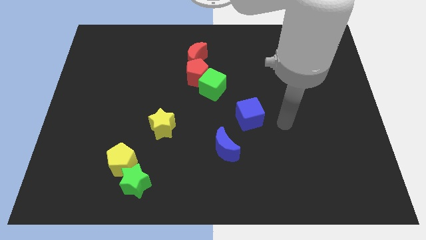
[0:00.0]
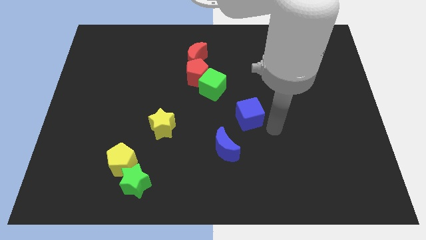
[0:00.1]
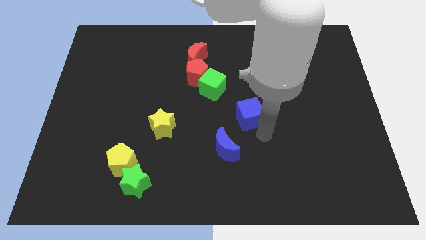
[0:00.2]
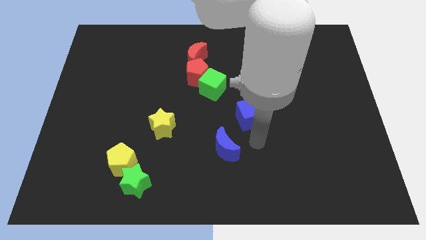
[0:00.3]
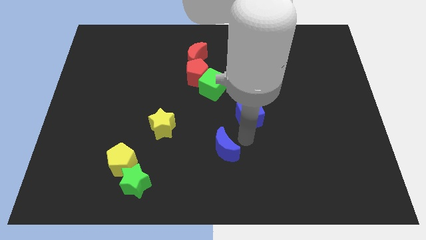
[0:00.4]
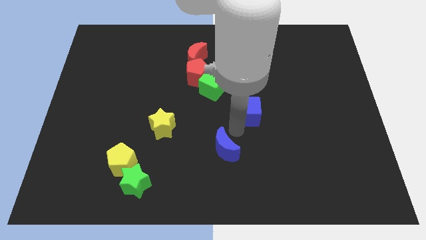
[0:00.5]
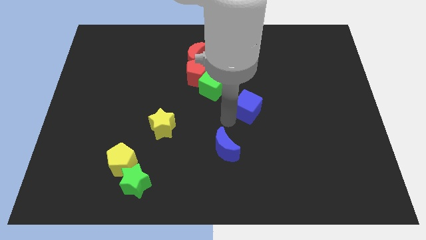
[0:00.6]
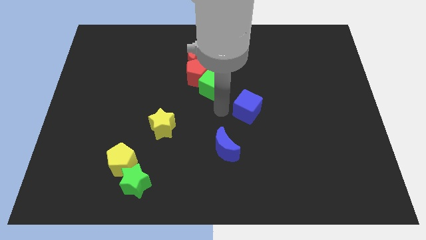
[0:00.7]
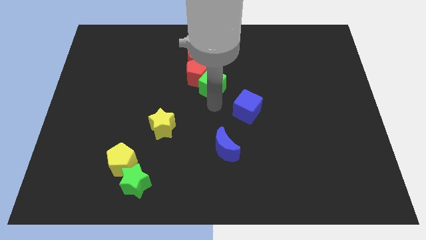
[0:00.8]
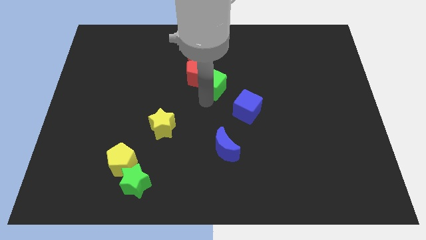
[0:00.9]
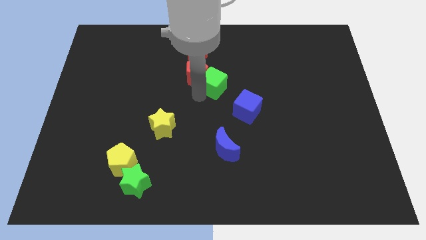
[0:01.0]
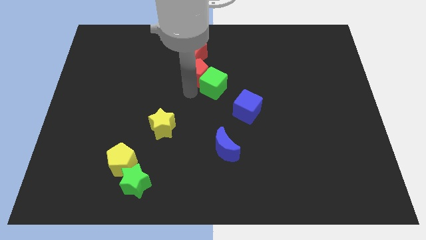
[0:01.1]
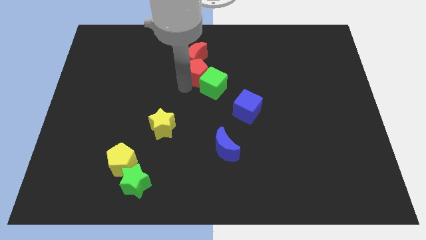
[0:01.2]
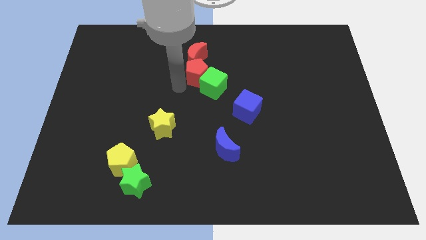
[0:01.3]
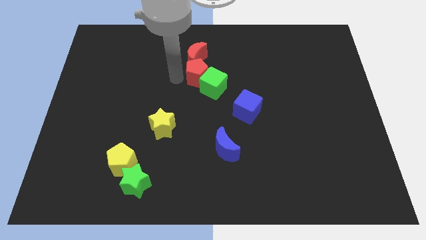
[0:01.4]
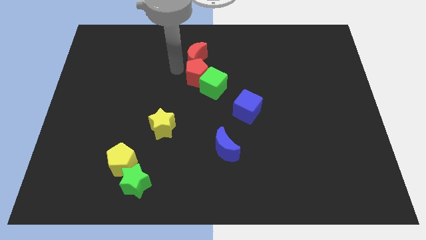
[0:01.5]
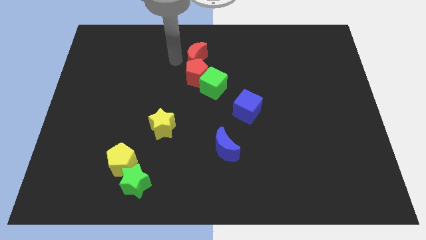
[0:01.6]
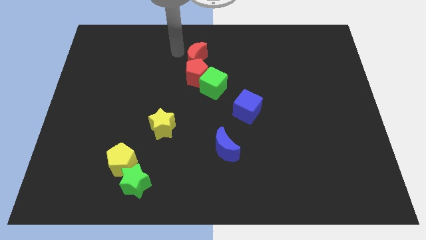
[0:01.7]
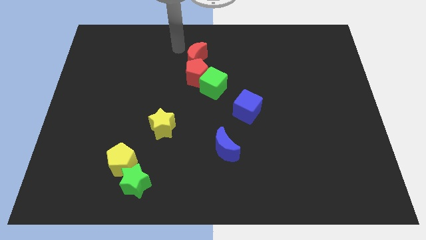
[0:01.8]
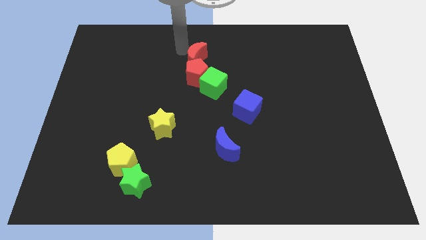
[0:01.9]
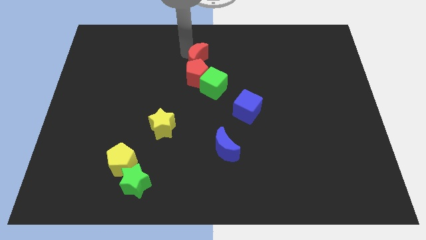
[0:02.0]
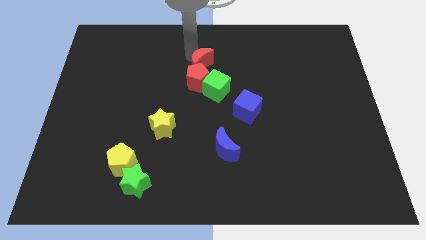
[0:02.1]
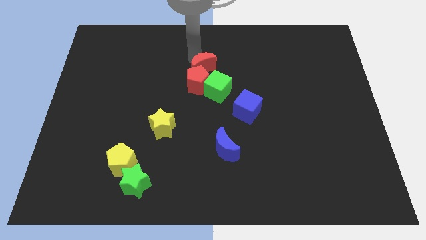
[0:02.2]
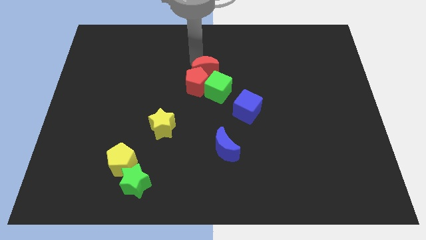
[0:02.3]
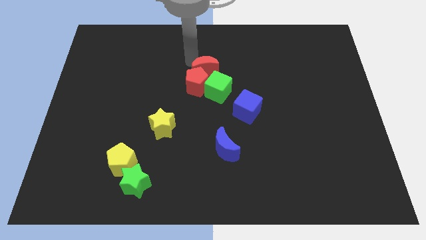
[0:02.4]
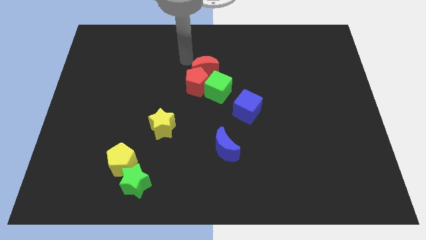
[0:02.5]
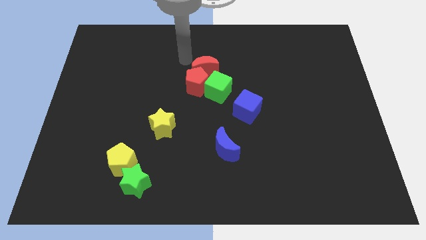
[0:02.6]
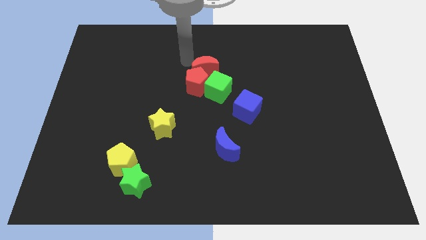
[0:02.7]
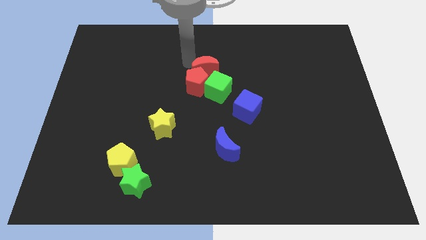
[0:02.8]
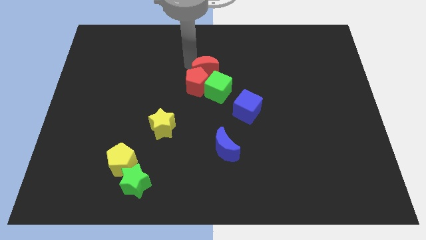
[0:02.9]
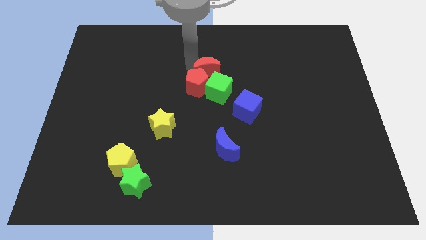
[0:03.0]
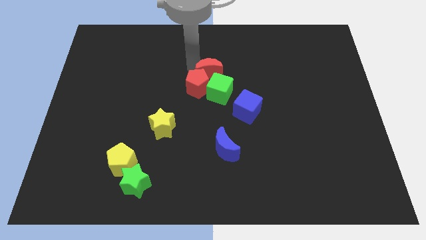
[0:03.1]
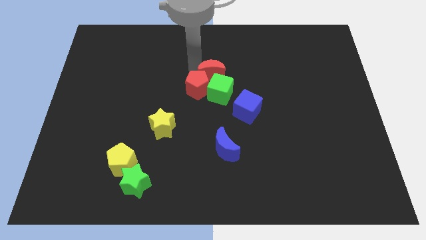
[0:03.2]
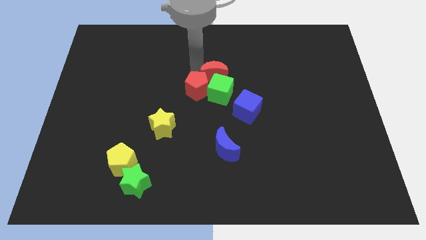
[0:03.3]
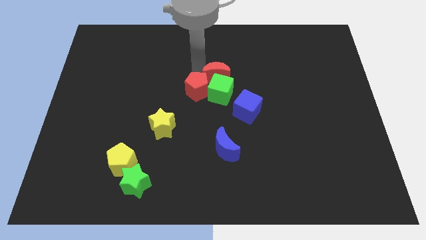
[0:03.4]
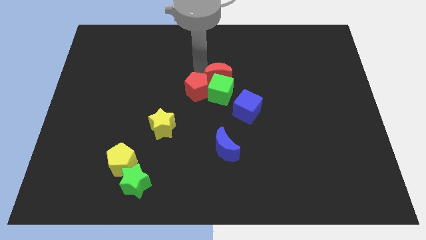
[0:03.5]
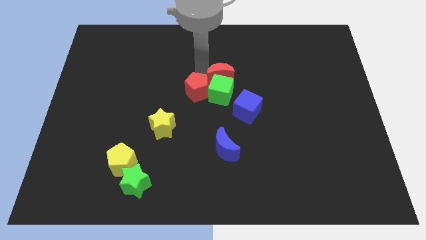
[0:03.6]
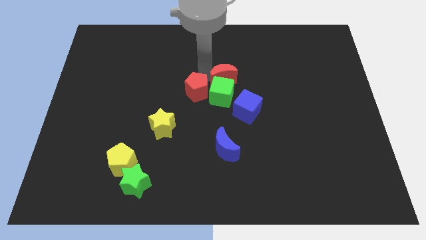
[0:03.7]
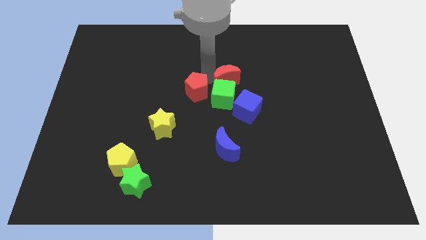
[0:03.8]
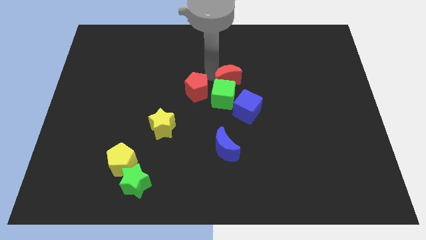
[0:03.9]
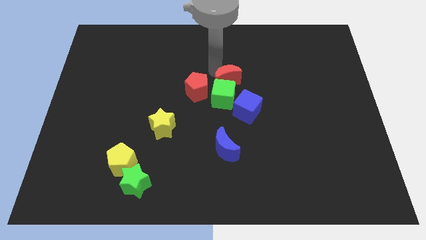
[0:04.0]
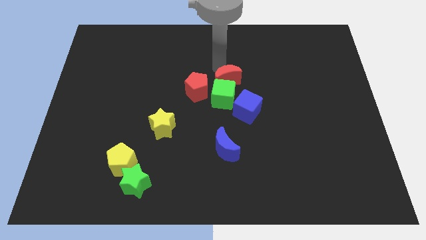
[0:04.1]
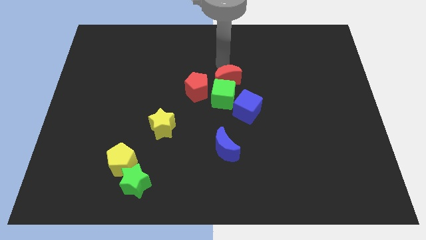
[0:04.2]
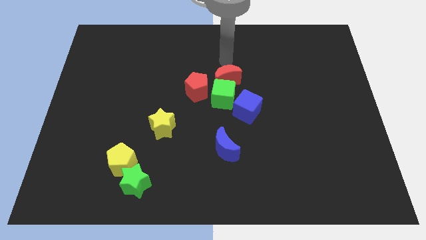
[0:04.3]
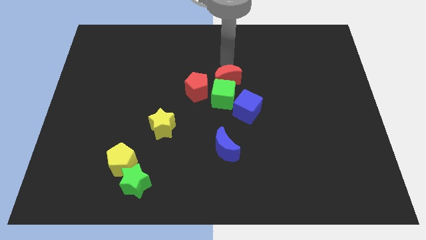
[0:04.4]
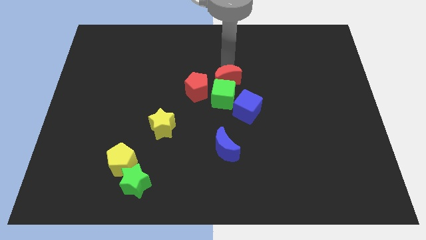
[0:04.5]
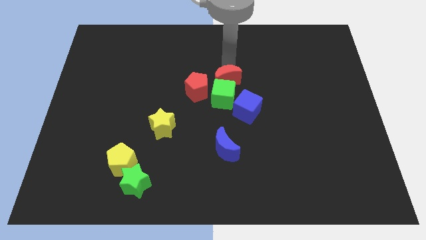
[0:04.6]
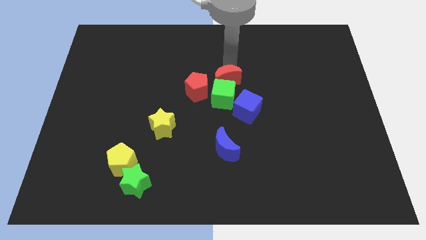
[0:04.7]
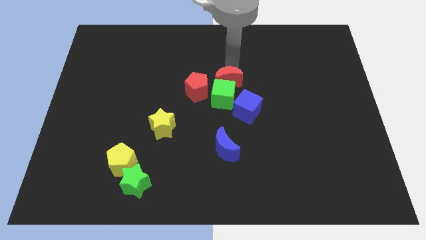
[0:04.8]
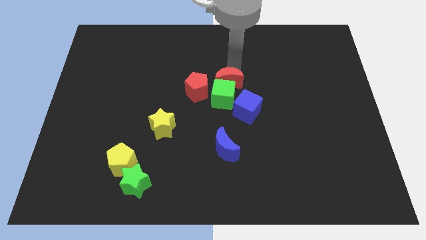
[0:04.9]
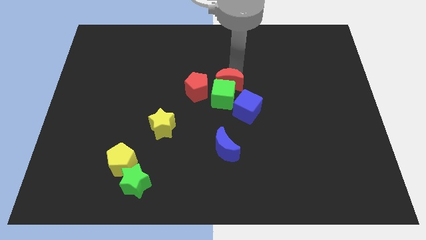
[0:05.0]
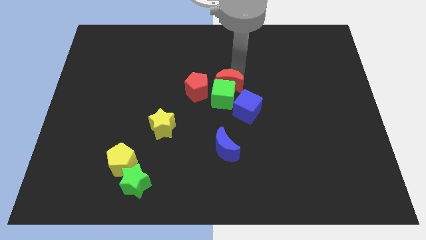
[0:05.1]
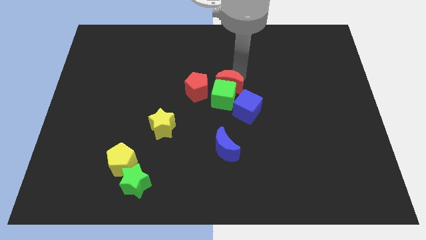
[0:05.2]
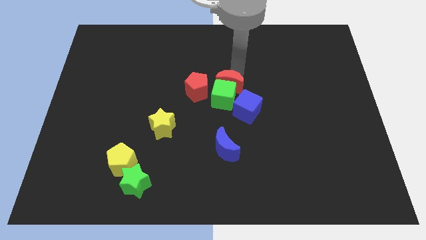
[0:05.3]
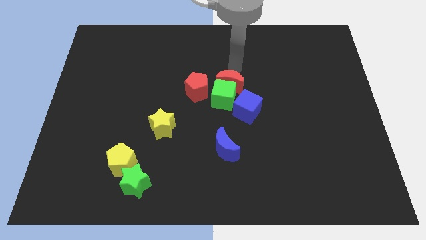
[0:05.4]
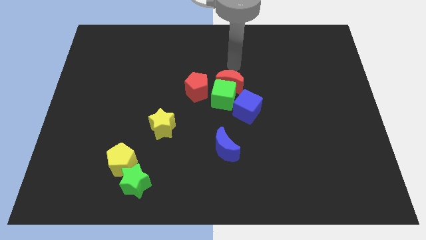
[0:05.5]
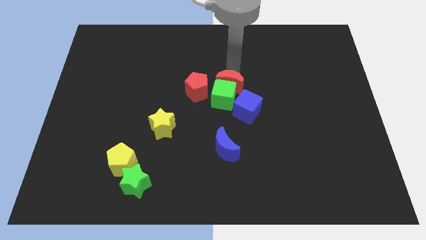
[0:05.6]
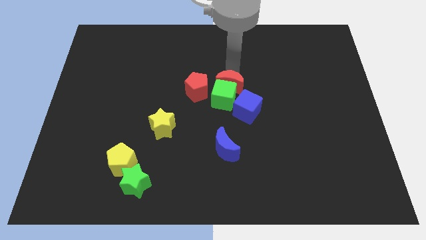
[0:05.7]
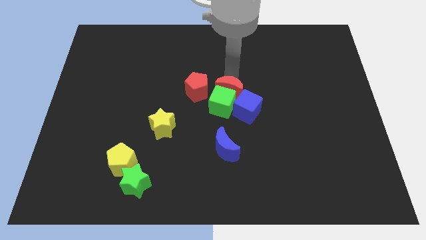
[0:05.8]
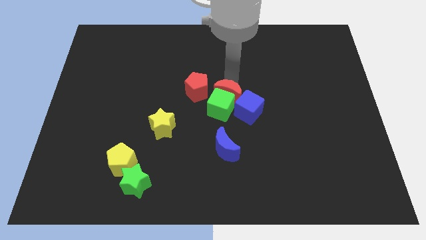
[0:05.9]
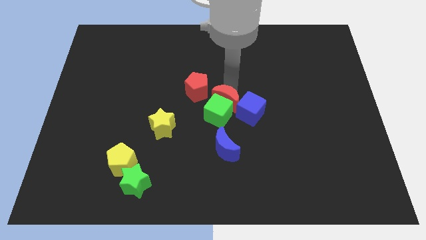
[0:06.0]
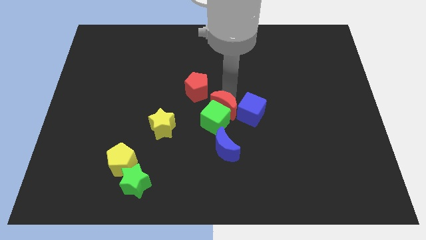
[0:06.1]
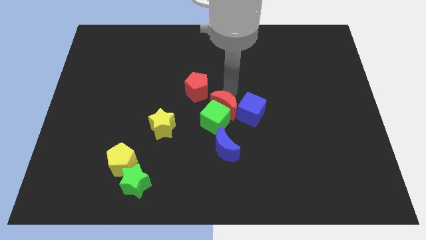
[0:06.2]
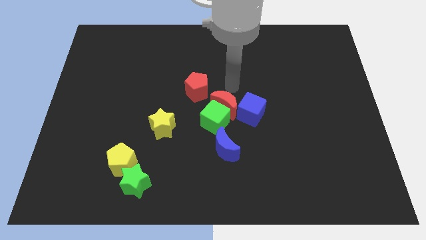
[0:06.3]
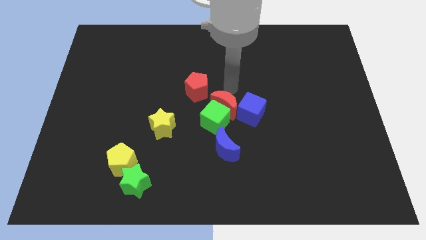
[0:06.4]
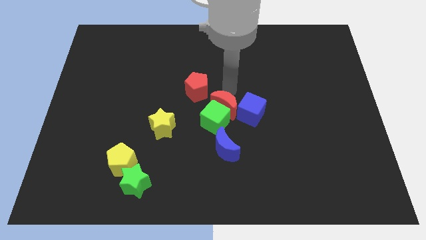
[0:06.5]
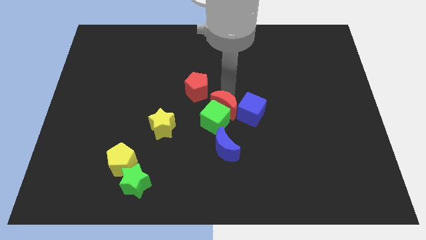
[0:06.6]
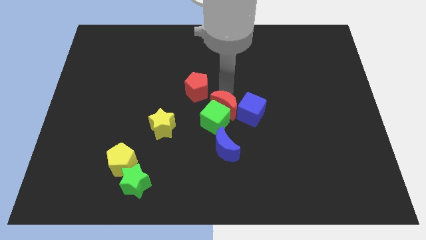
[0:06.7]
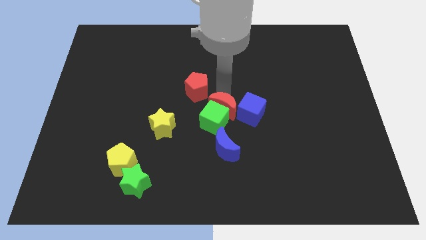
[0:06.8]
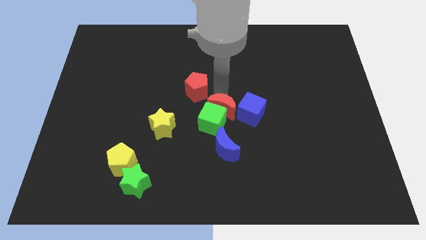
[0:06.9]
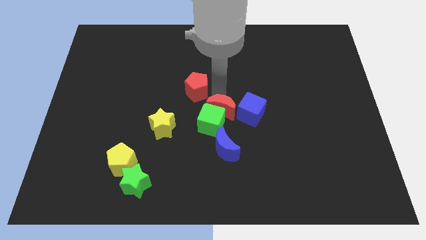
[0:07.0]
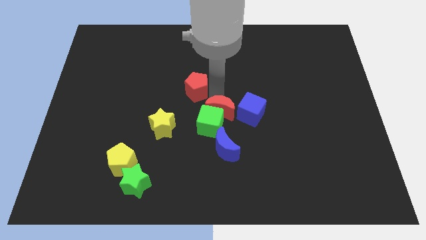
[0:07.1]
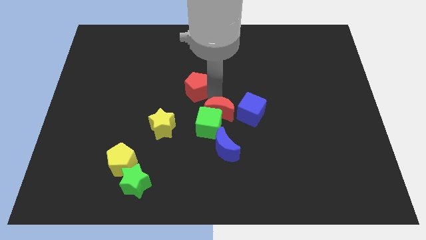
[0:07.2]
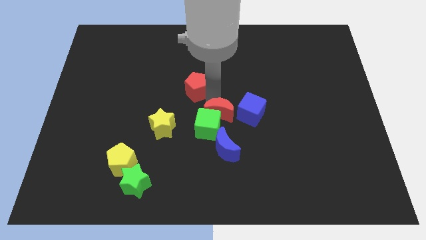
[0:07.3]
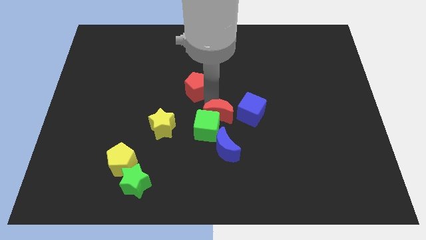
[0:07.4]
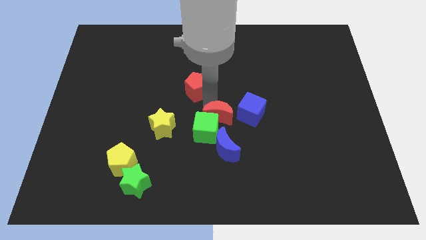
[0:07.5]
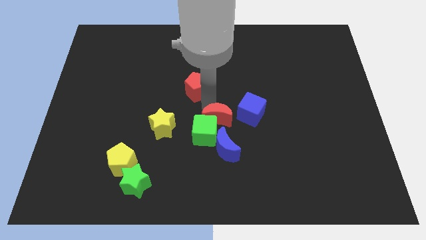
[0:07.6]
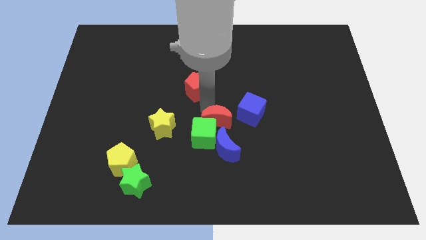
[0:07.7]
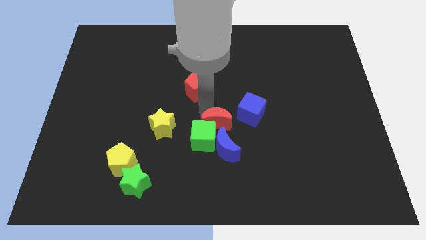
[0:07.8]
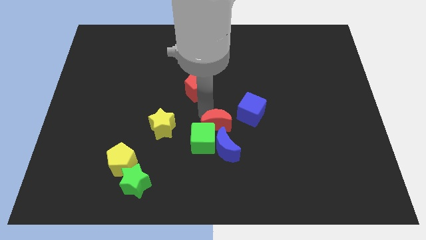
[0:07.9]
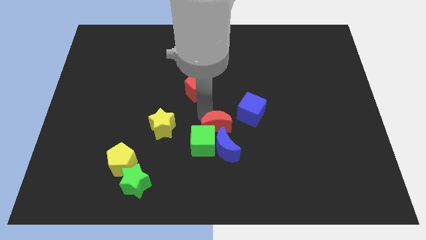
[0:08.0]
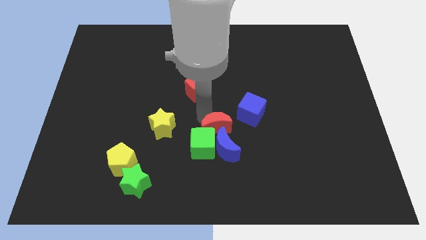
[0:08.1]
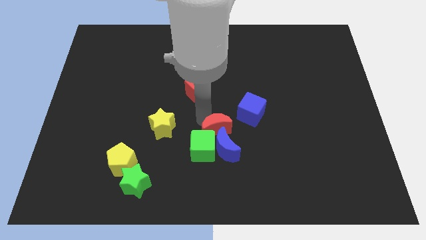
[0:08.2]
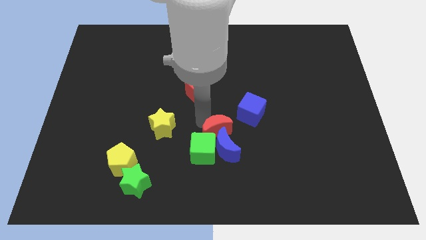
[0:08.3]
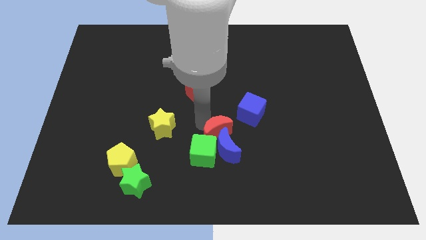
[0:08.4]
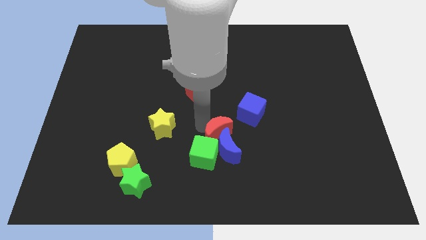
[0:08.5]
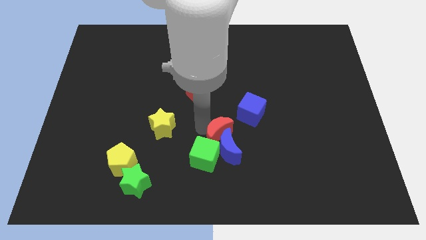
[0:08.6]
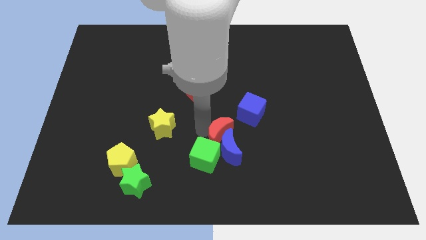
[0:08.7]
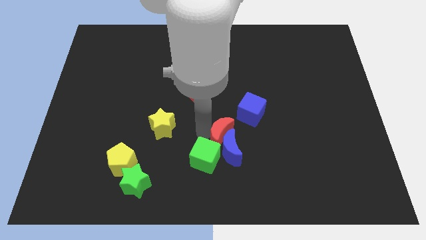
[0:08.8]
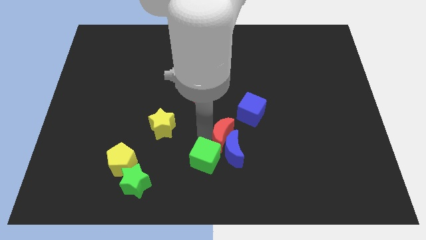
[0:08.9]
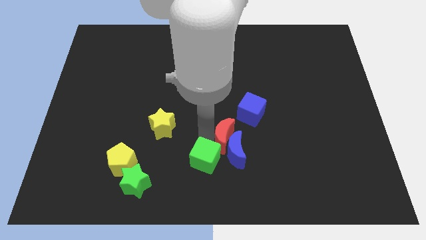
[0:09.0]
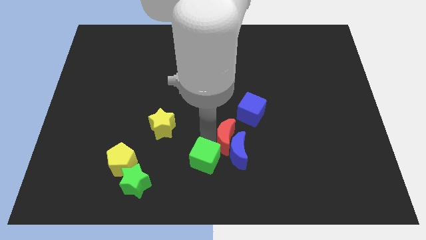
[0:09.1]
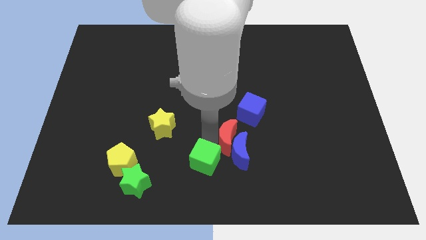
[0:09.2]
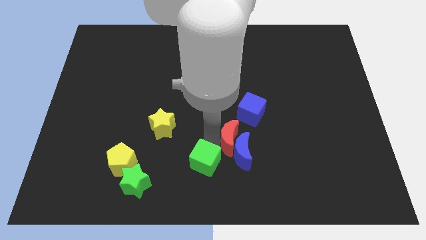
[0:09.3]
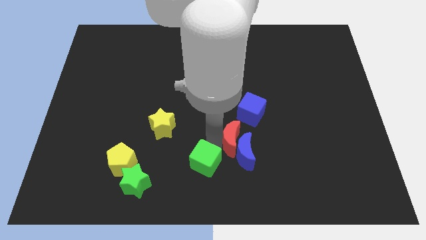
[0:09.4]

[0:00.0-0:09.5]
put the red moon to the bottom side of the blue cube
